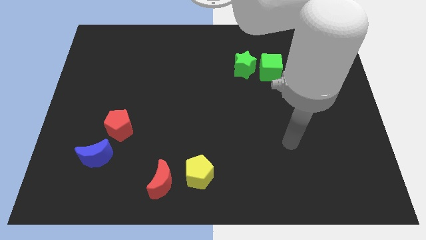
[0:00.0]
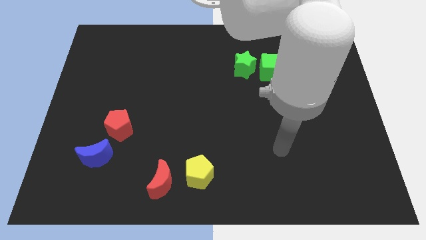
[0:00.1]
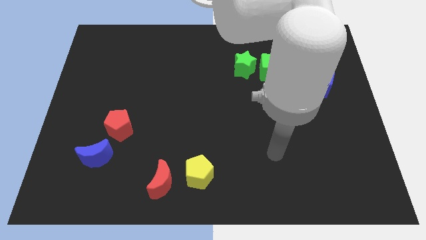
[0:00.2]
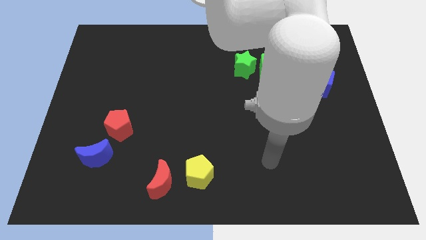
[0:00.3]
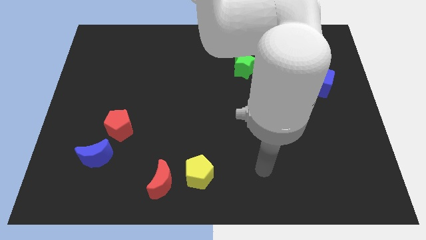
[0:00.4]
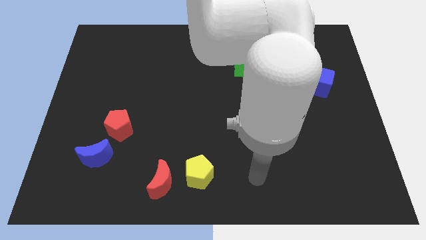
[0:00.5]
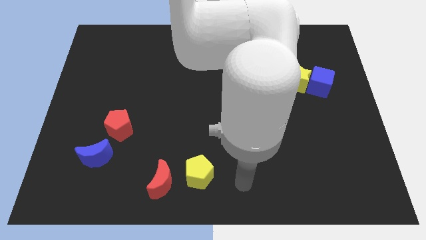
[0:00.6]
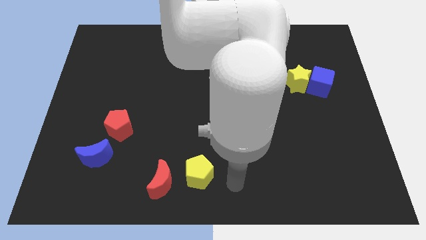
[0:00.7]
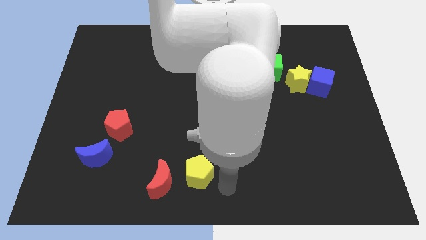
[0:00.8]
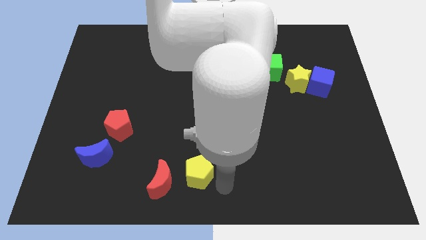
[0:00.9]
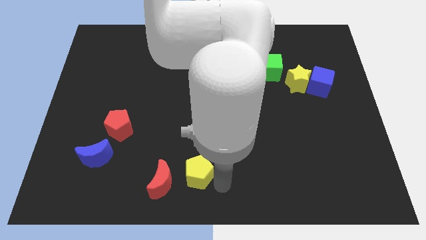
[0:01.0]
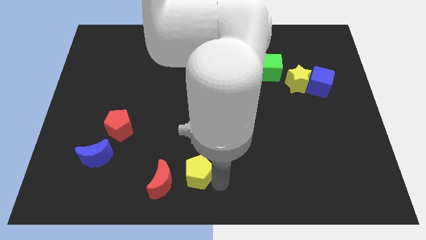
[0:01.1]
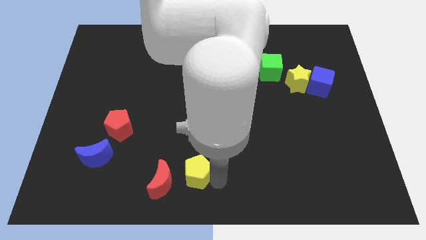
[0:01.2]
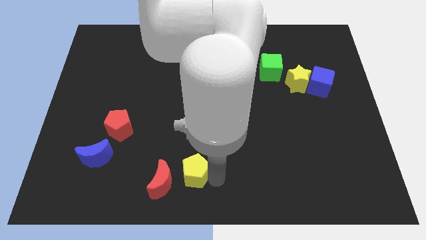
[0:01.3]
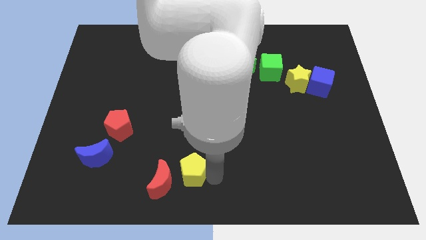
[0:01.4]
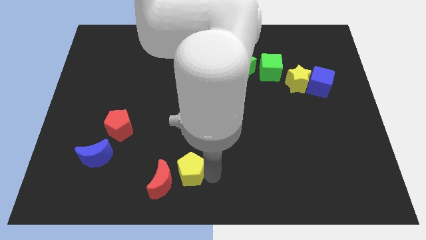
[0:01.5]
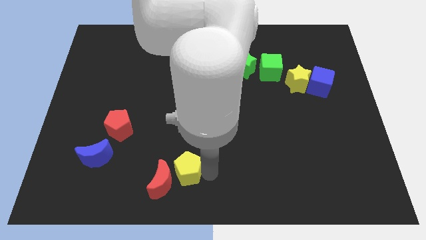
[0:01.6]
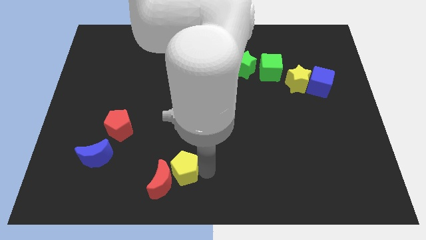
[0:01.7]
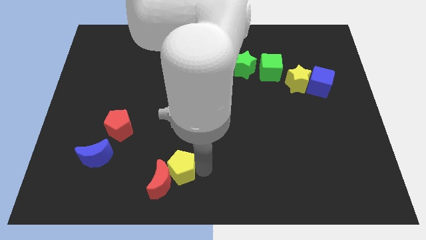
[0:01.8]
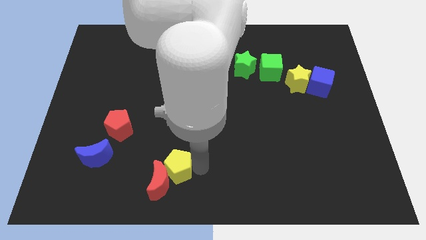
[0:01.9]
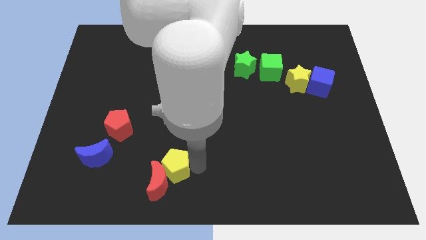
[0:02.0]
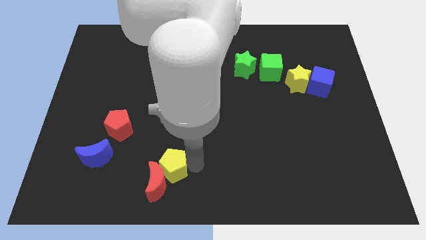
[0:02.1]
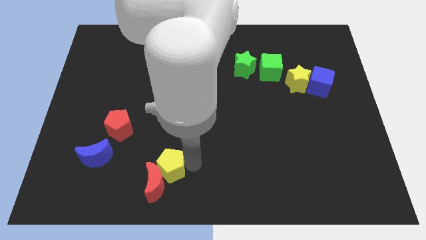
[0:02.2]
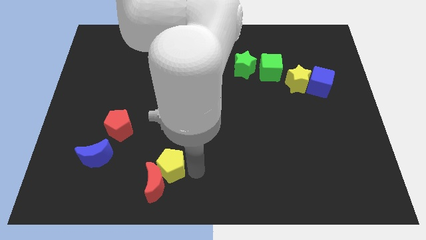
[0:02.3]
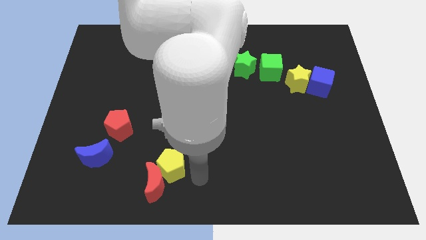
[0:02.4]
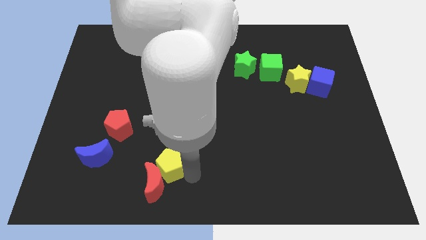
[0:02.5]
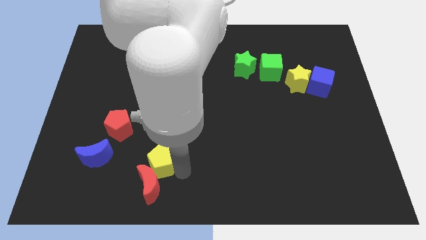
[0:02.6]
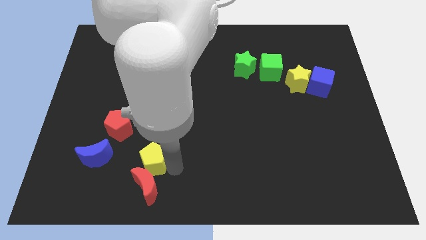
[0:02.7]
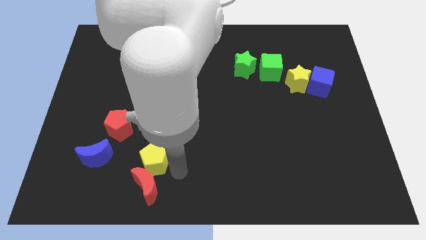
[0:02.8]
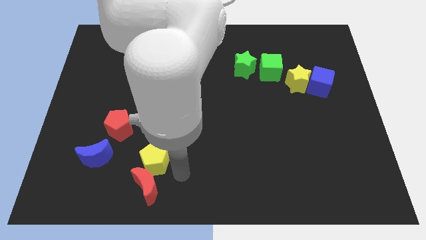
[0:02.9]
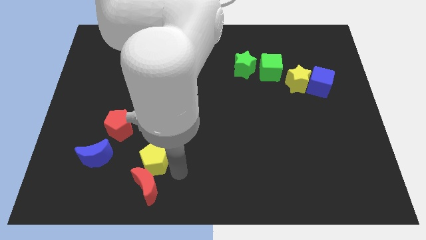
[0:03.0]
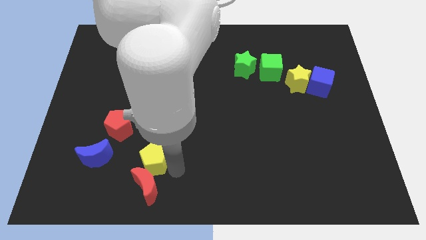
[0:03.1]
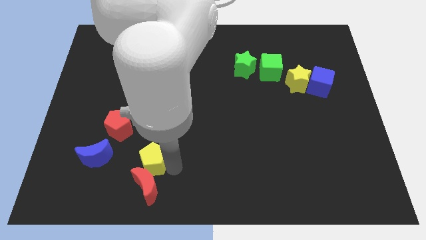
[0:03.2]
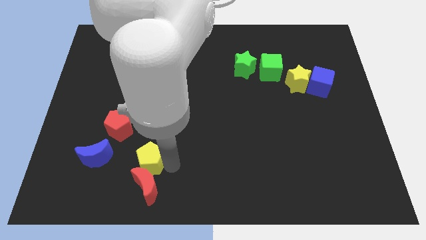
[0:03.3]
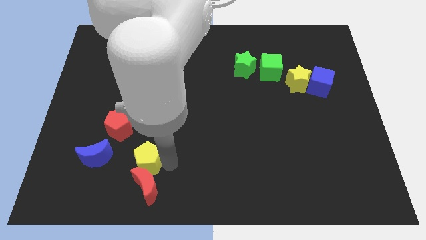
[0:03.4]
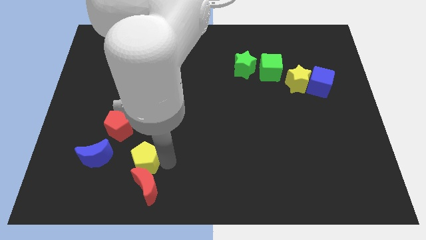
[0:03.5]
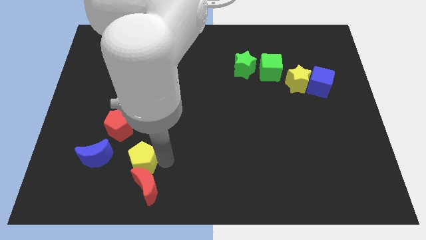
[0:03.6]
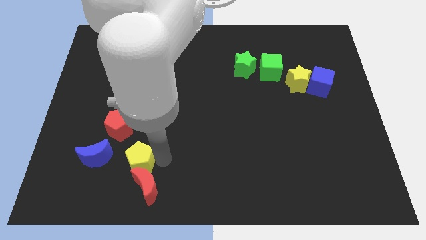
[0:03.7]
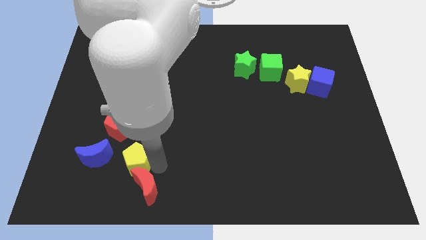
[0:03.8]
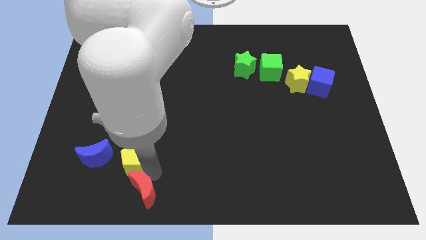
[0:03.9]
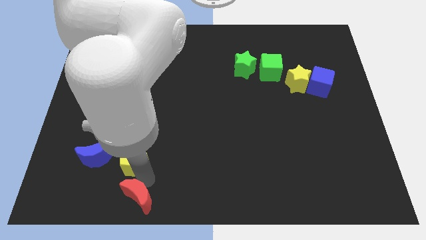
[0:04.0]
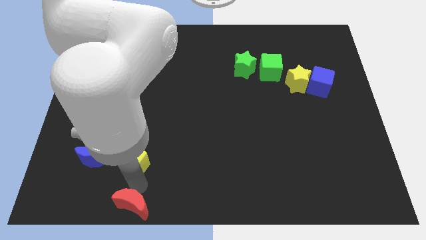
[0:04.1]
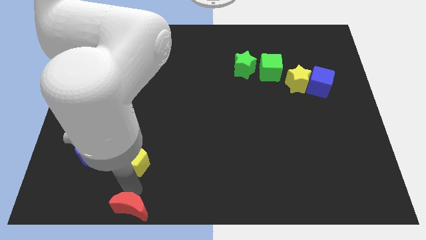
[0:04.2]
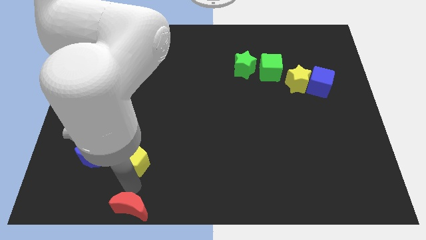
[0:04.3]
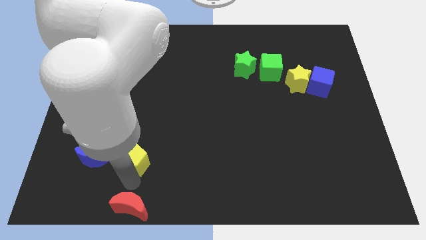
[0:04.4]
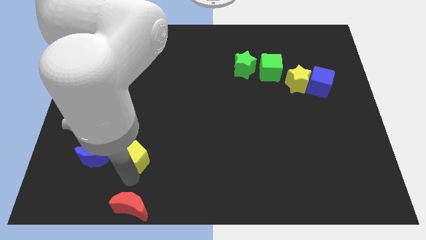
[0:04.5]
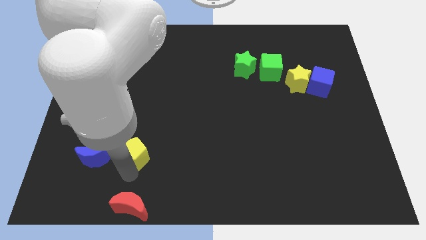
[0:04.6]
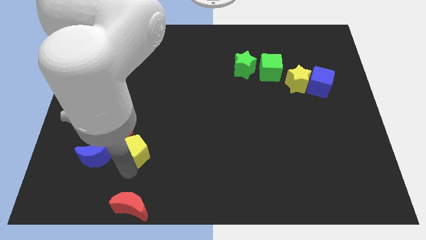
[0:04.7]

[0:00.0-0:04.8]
put the yellow pentagon diagonally up and to the right of the blue moon

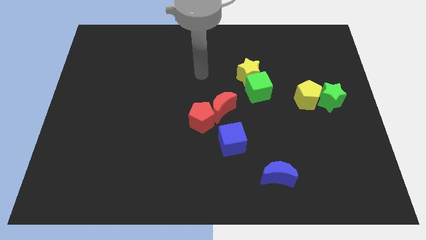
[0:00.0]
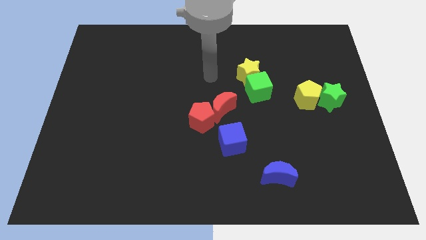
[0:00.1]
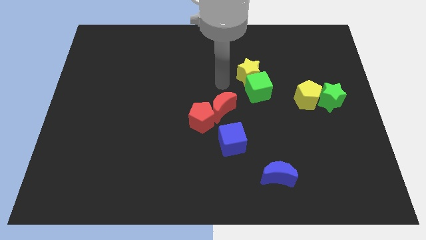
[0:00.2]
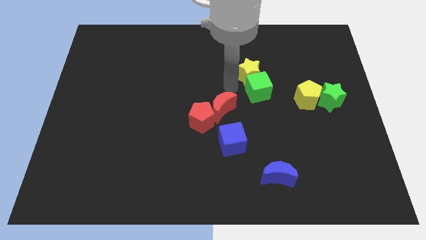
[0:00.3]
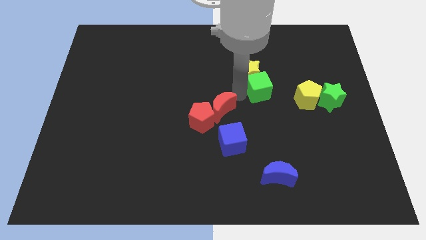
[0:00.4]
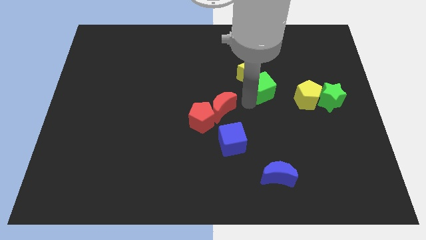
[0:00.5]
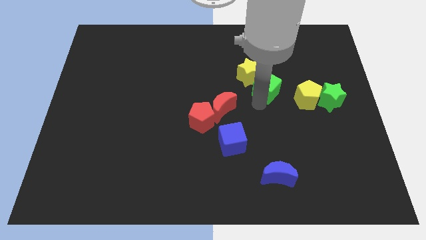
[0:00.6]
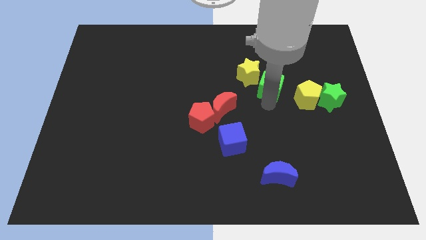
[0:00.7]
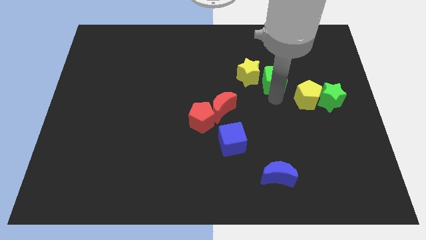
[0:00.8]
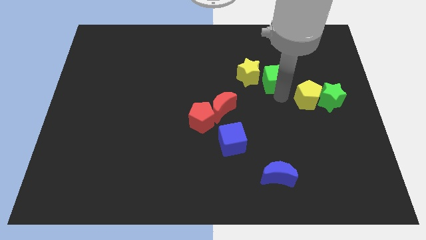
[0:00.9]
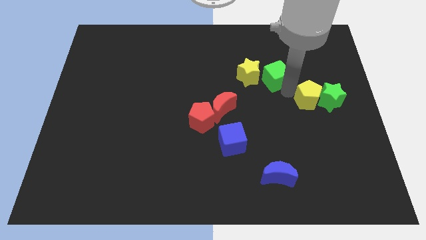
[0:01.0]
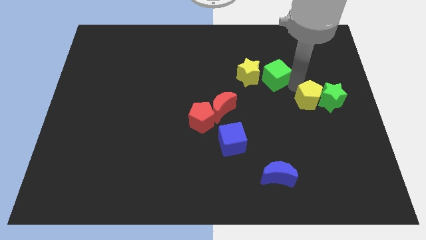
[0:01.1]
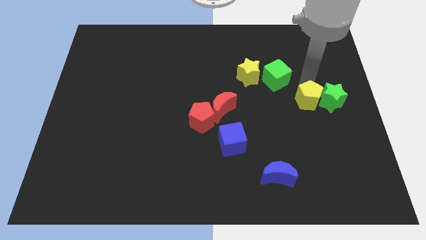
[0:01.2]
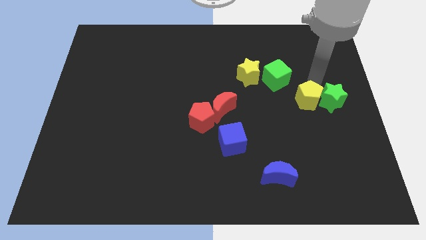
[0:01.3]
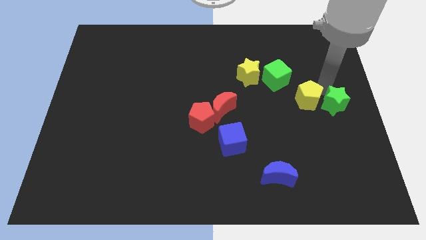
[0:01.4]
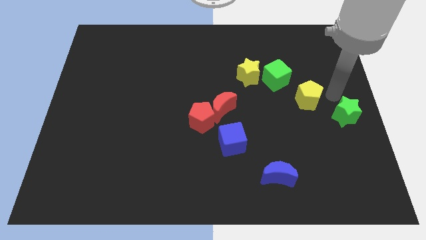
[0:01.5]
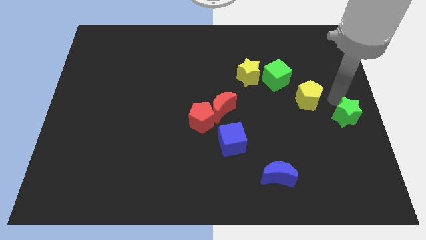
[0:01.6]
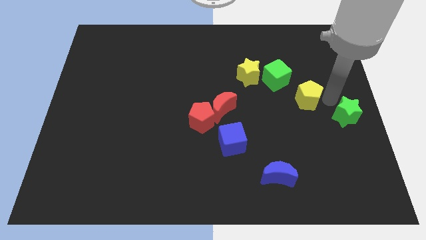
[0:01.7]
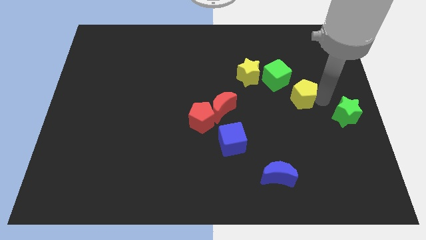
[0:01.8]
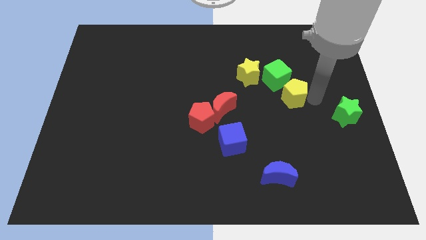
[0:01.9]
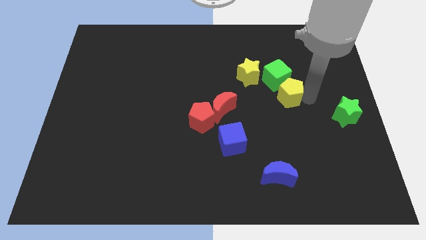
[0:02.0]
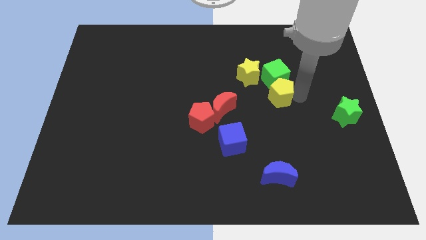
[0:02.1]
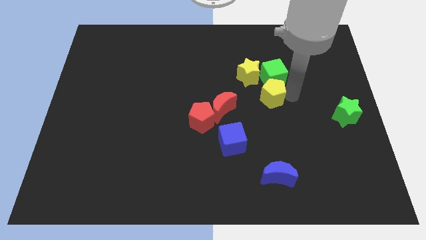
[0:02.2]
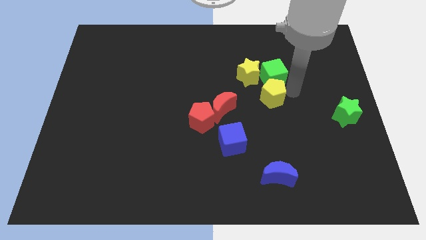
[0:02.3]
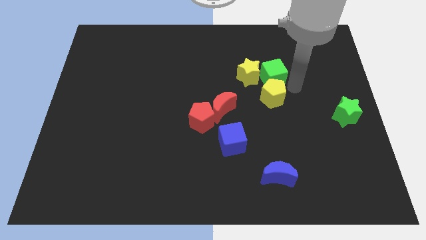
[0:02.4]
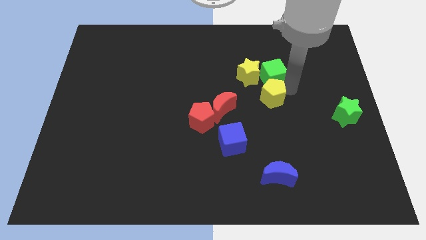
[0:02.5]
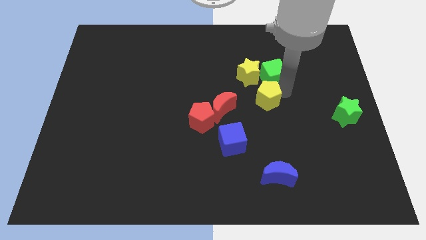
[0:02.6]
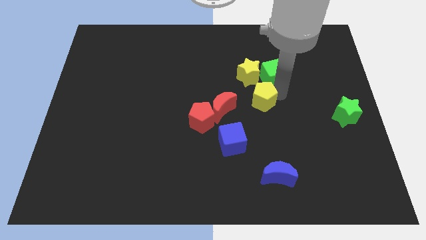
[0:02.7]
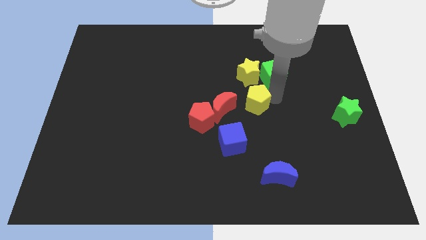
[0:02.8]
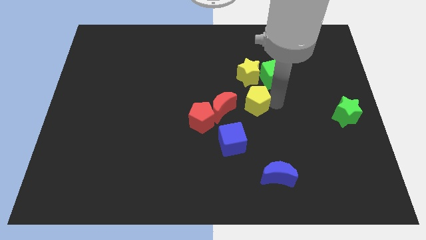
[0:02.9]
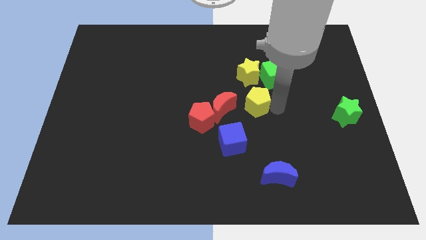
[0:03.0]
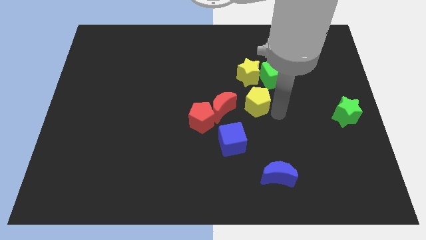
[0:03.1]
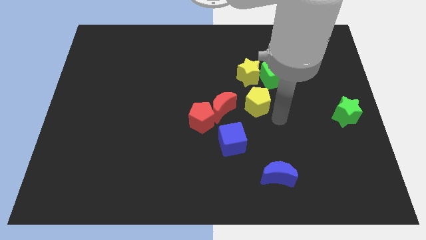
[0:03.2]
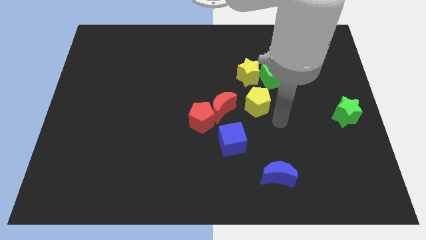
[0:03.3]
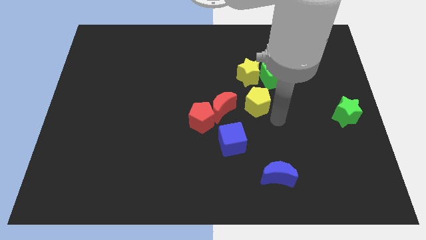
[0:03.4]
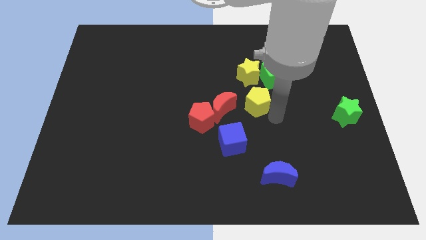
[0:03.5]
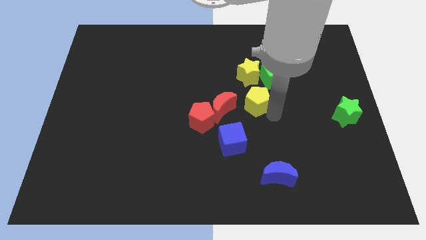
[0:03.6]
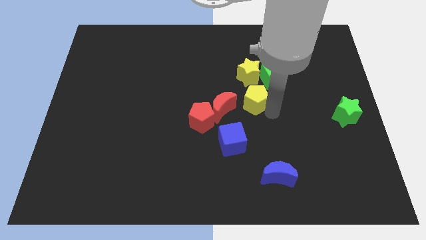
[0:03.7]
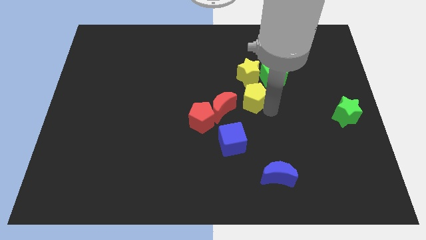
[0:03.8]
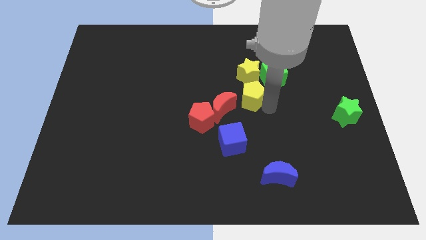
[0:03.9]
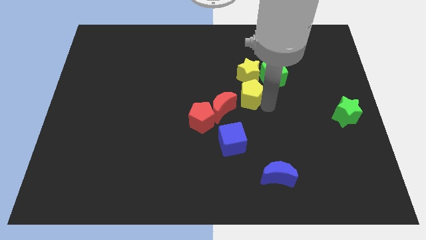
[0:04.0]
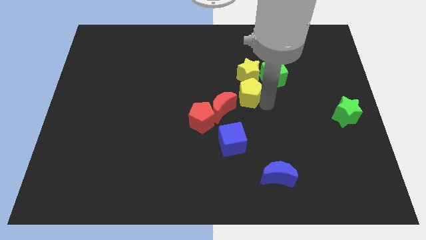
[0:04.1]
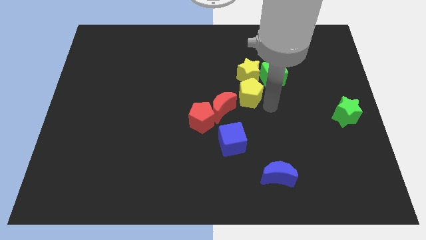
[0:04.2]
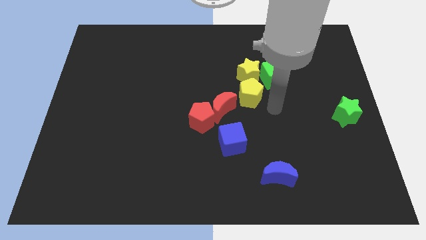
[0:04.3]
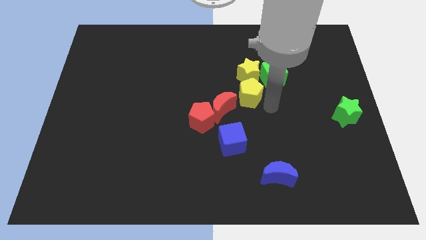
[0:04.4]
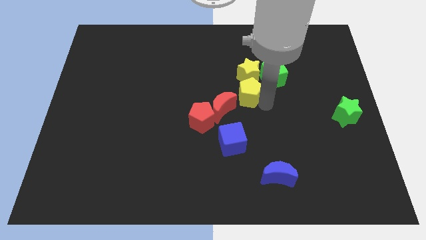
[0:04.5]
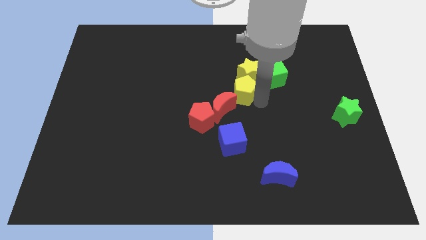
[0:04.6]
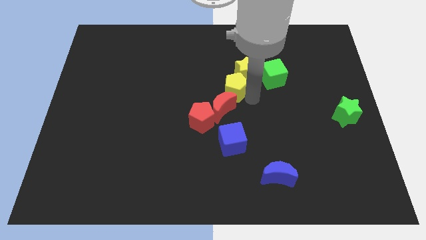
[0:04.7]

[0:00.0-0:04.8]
move the yellow pentagon above the red moon
